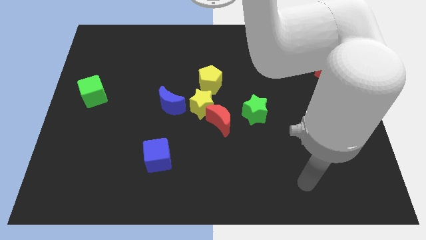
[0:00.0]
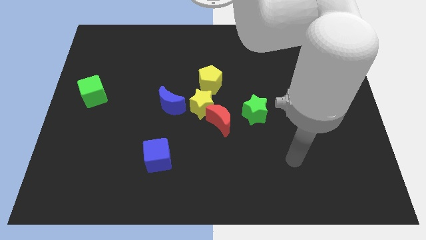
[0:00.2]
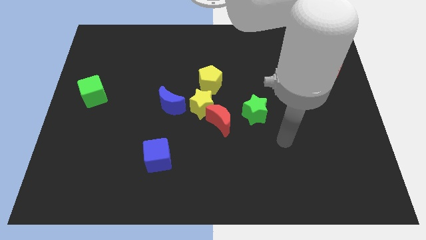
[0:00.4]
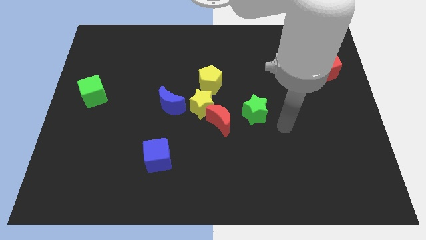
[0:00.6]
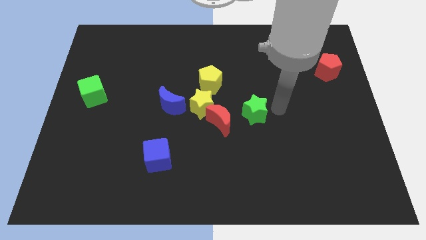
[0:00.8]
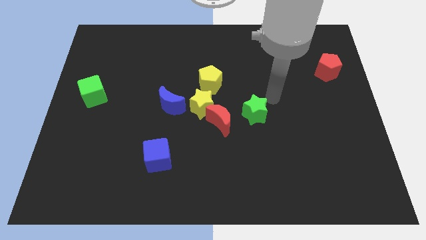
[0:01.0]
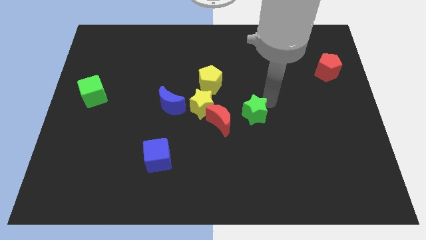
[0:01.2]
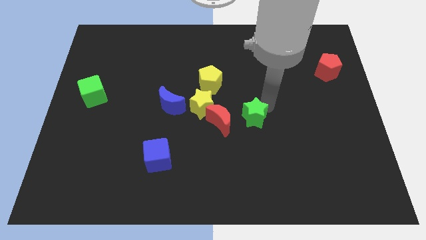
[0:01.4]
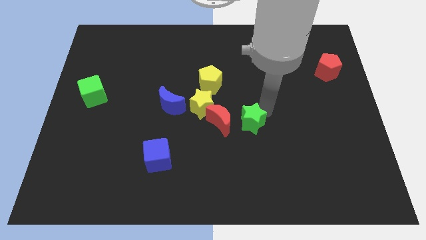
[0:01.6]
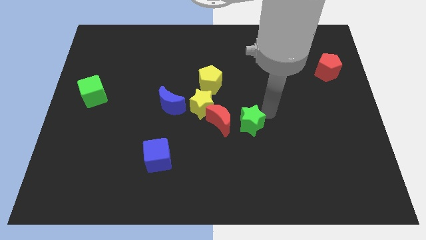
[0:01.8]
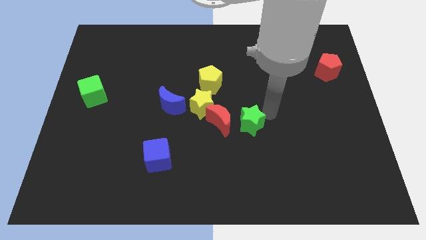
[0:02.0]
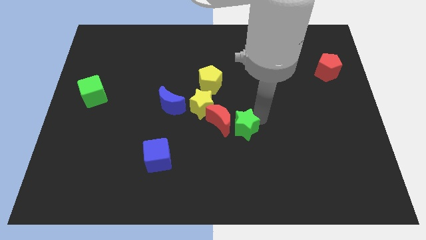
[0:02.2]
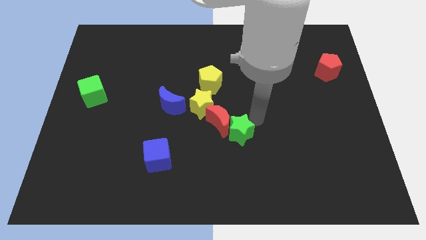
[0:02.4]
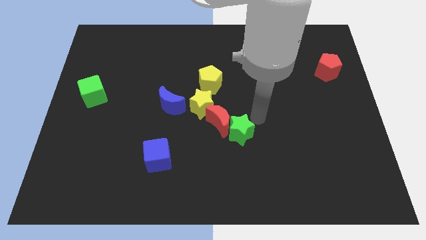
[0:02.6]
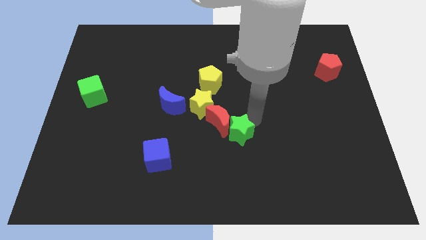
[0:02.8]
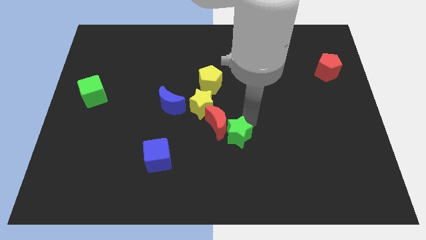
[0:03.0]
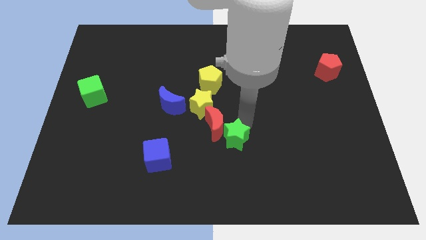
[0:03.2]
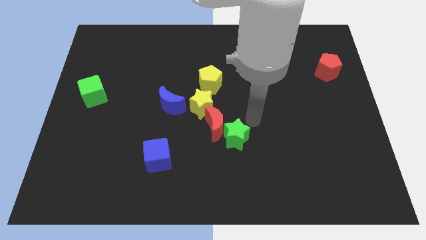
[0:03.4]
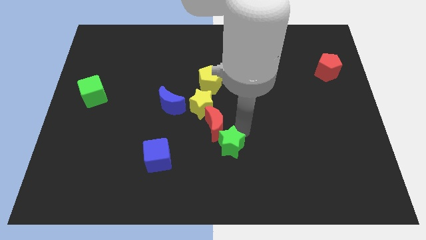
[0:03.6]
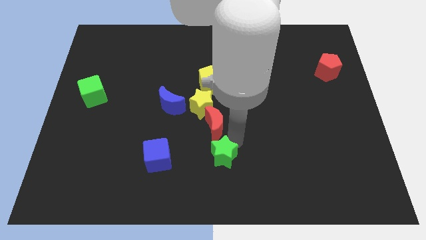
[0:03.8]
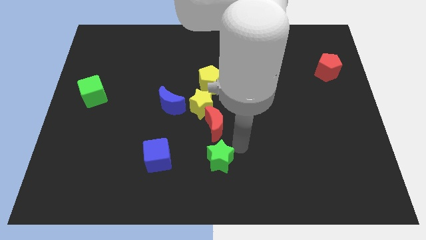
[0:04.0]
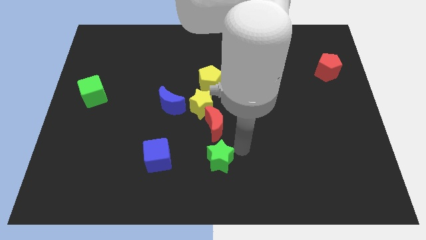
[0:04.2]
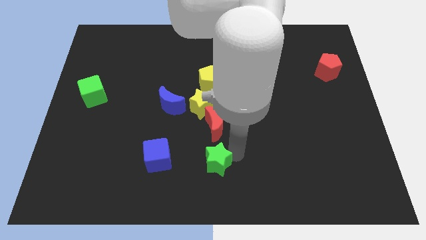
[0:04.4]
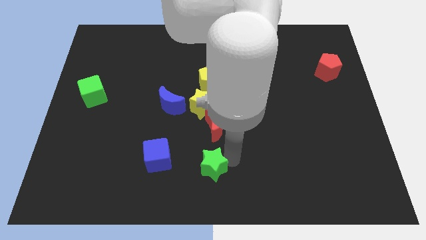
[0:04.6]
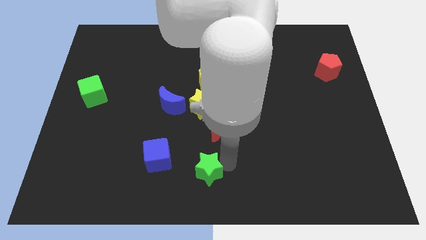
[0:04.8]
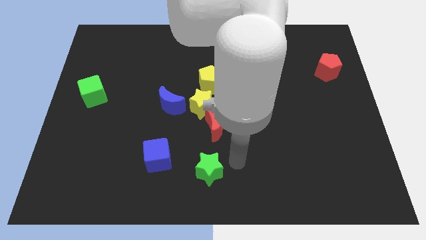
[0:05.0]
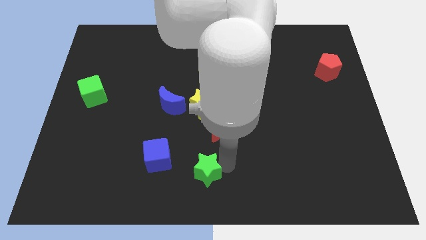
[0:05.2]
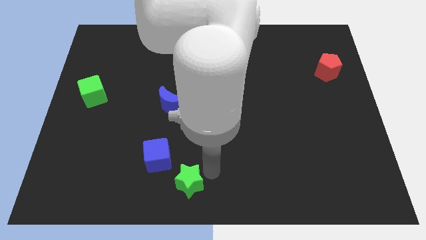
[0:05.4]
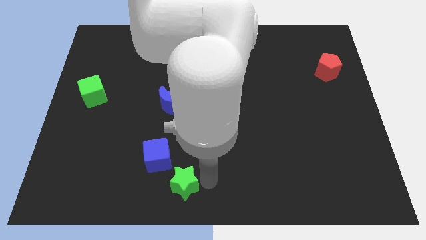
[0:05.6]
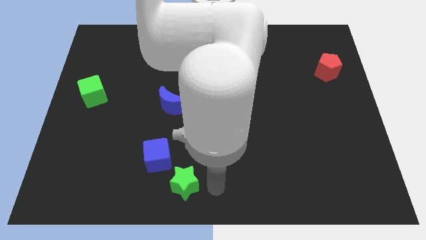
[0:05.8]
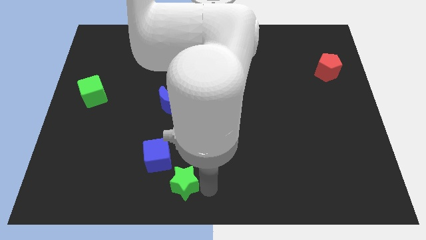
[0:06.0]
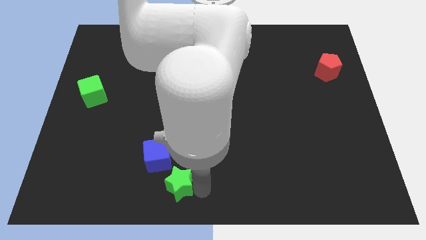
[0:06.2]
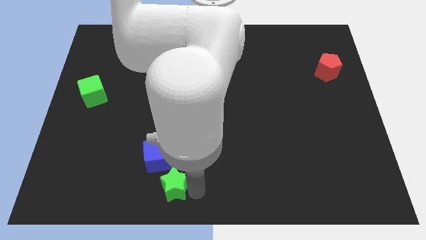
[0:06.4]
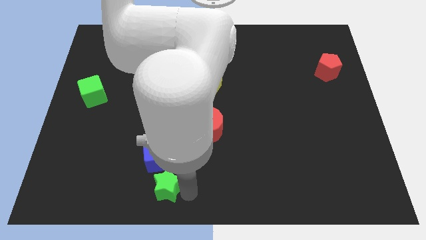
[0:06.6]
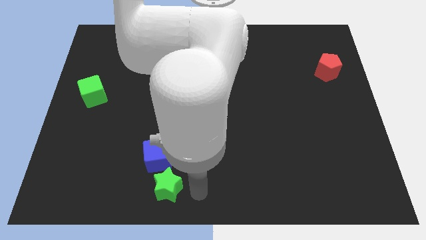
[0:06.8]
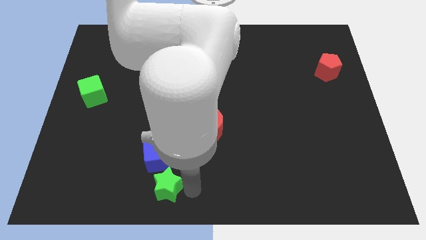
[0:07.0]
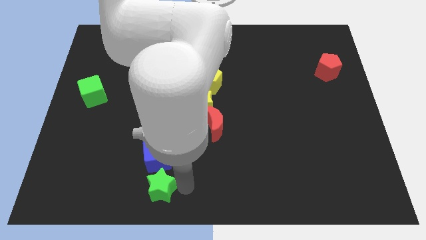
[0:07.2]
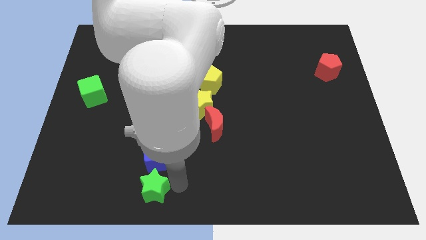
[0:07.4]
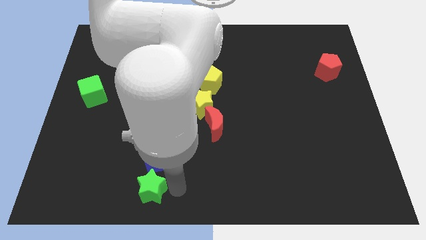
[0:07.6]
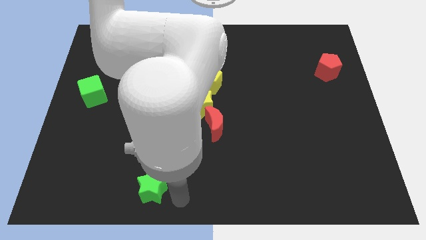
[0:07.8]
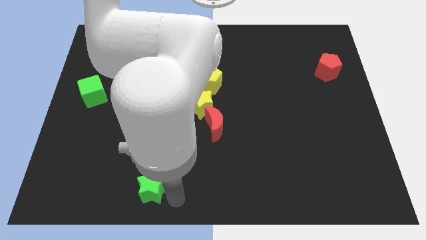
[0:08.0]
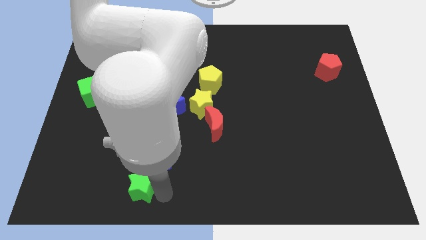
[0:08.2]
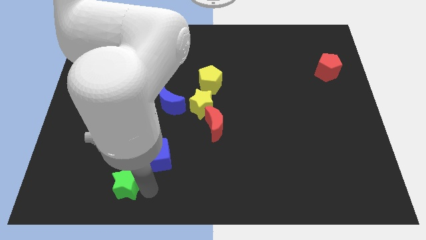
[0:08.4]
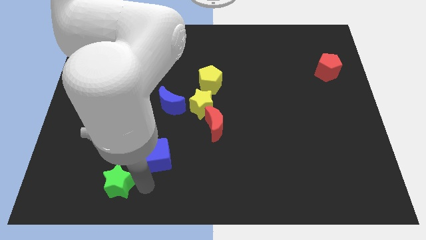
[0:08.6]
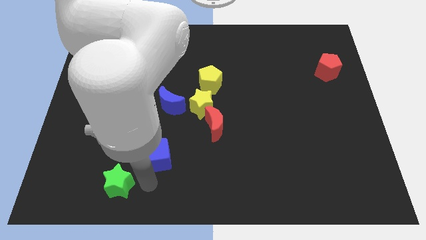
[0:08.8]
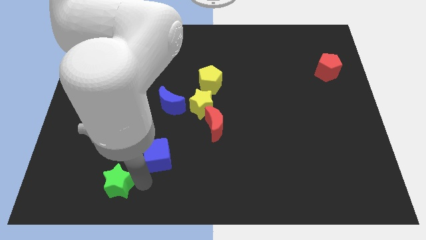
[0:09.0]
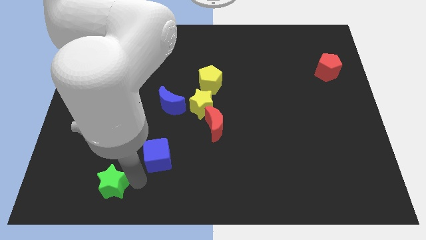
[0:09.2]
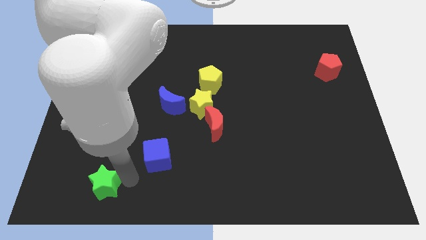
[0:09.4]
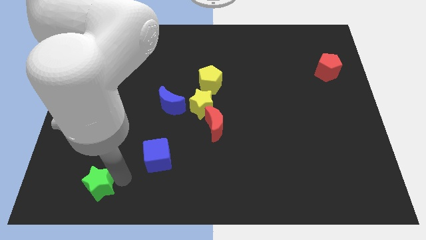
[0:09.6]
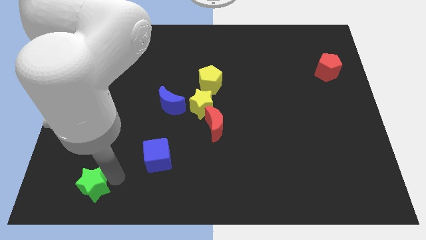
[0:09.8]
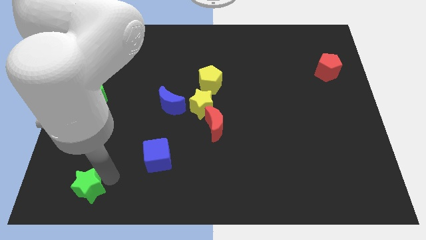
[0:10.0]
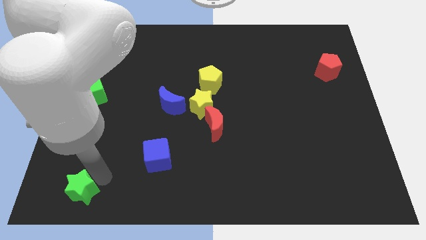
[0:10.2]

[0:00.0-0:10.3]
push the green star to the bottom left of the board

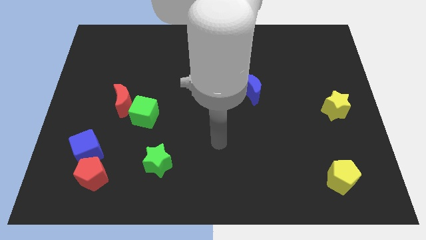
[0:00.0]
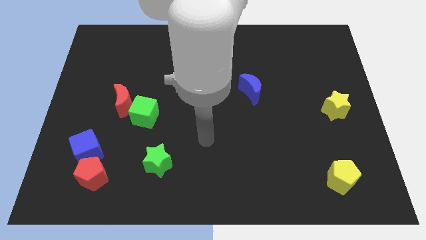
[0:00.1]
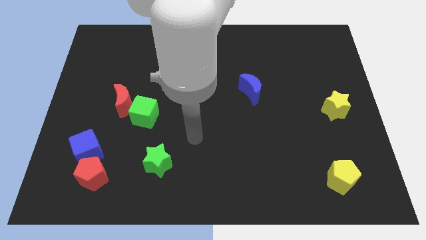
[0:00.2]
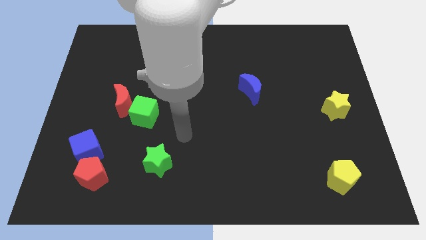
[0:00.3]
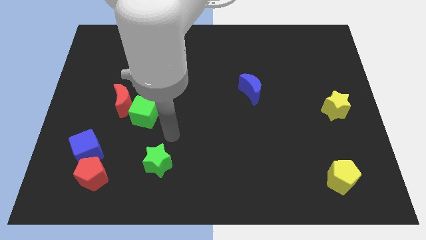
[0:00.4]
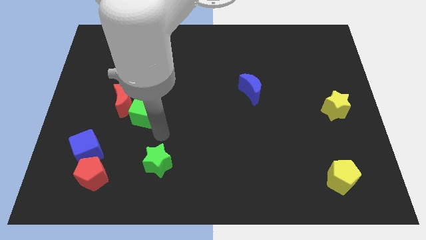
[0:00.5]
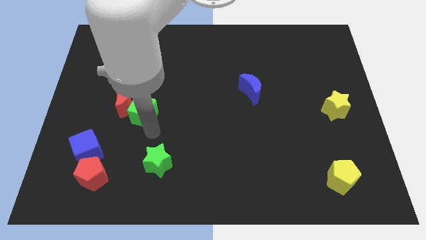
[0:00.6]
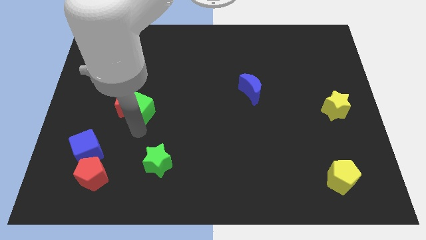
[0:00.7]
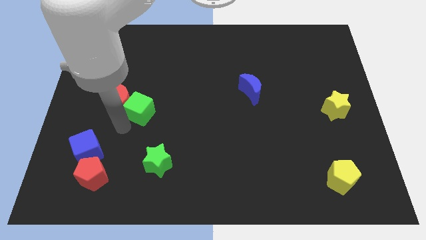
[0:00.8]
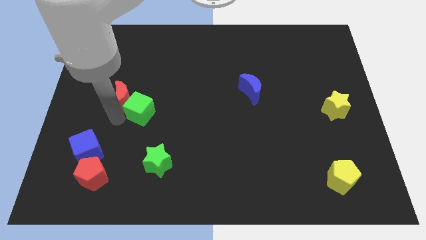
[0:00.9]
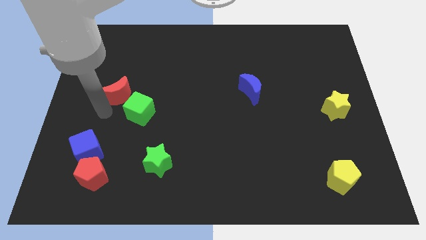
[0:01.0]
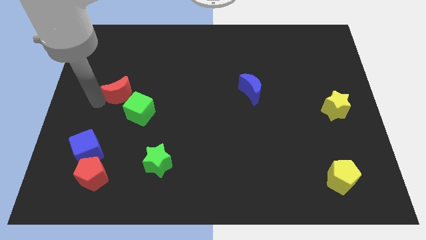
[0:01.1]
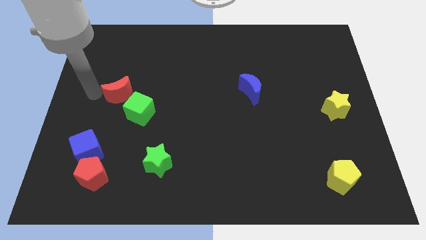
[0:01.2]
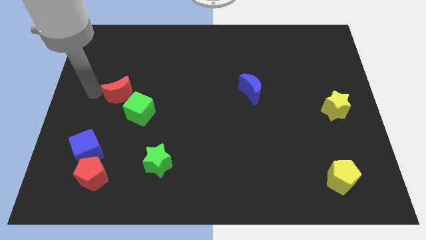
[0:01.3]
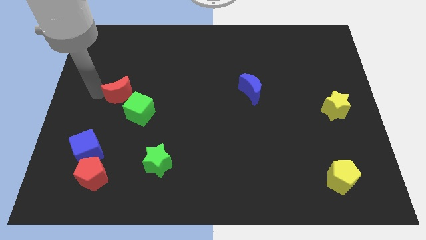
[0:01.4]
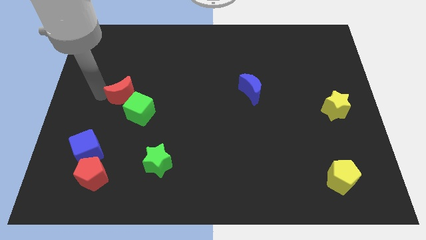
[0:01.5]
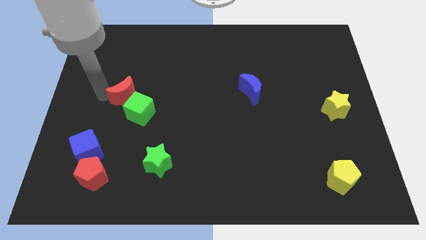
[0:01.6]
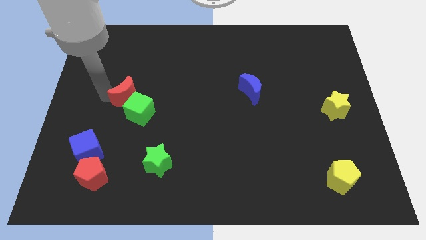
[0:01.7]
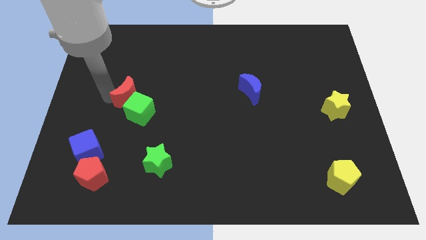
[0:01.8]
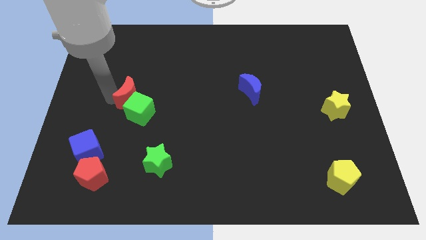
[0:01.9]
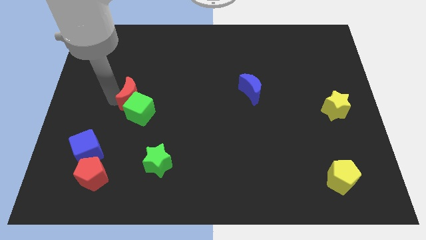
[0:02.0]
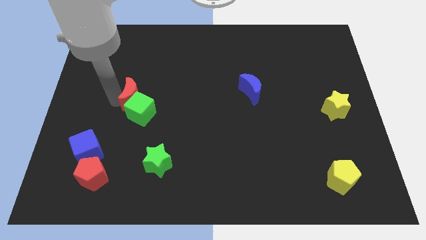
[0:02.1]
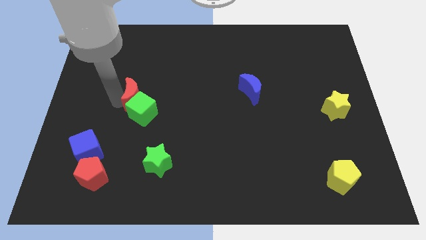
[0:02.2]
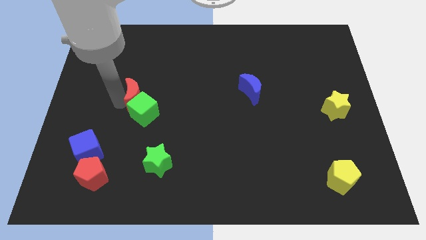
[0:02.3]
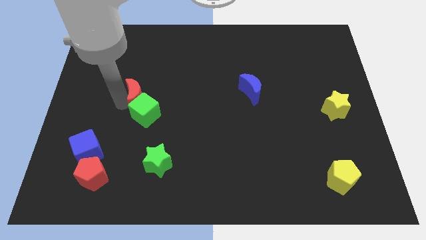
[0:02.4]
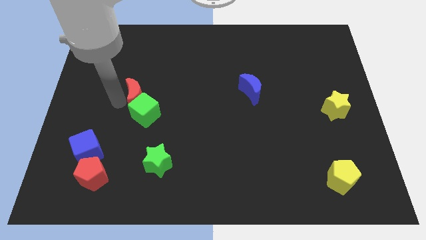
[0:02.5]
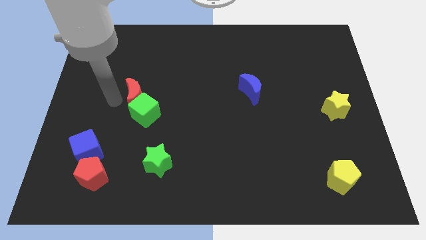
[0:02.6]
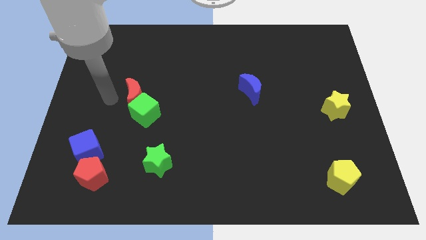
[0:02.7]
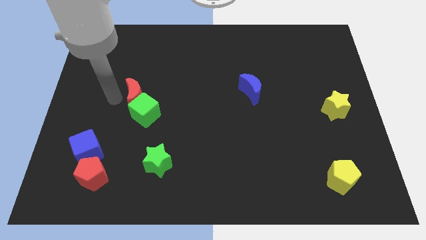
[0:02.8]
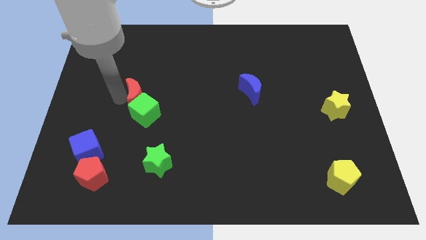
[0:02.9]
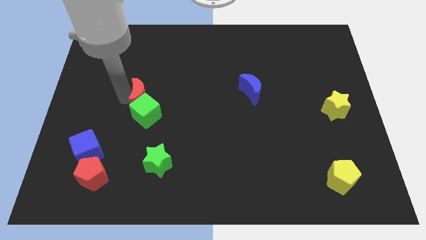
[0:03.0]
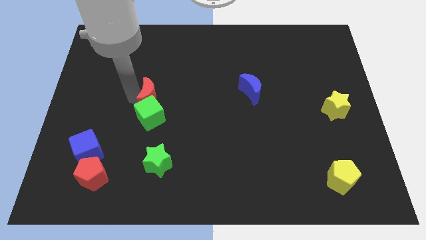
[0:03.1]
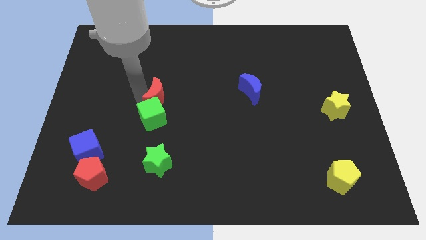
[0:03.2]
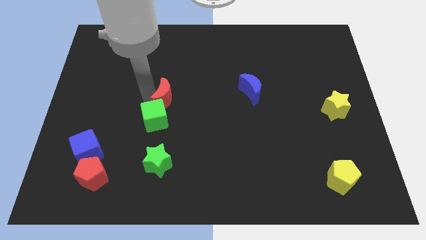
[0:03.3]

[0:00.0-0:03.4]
push the red moon to the middle of the board
